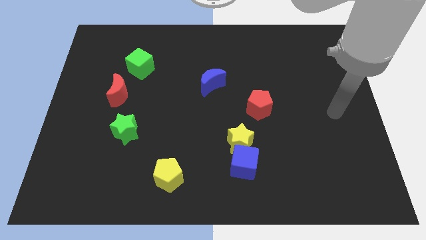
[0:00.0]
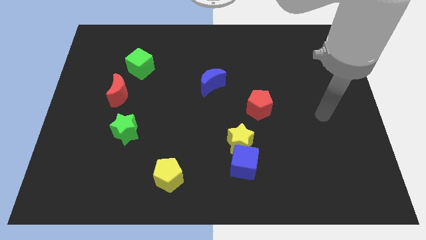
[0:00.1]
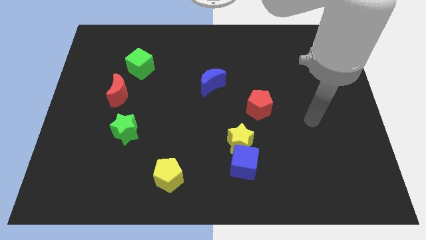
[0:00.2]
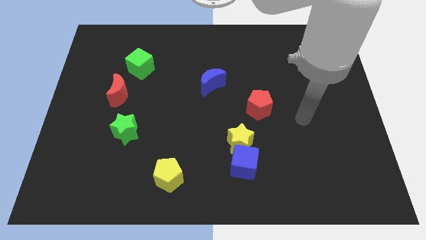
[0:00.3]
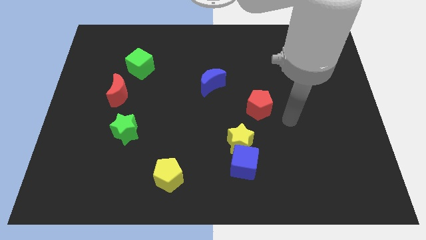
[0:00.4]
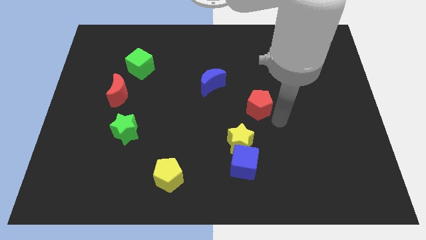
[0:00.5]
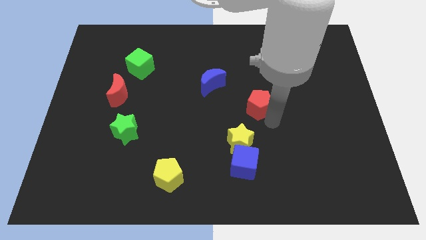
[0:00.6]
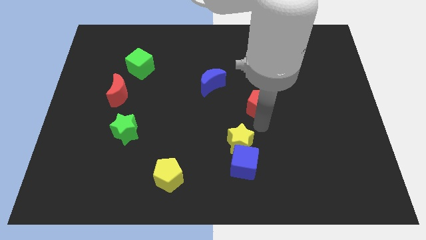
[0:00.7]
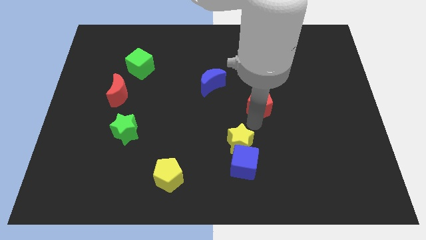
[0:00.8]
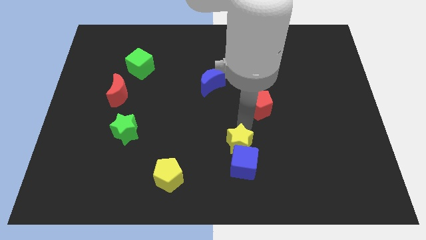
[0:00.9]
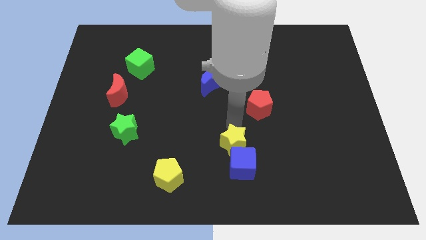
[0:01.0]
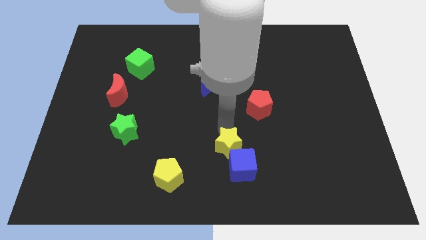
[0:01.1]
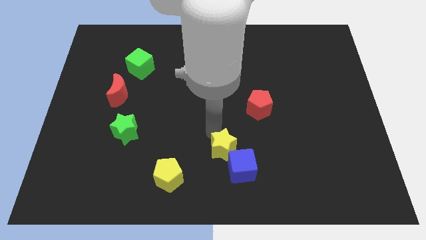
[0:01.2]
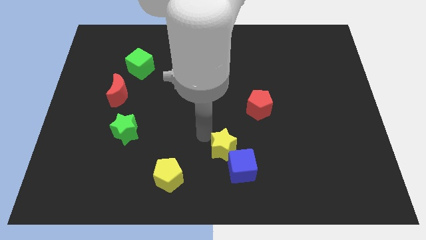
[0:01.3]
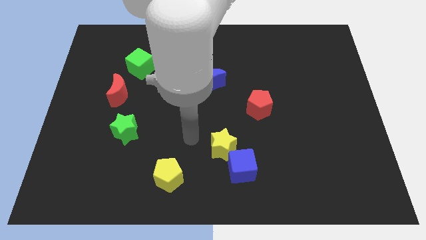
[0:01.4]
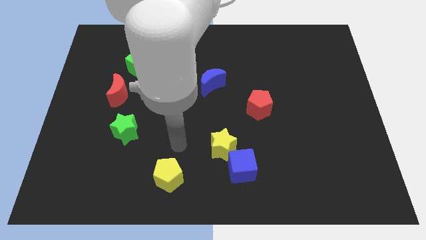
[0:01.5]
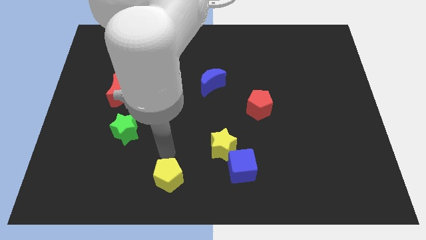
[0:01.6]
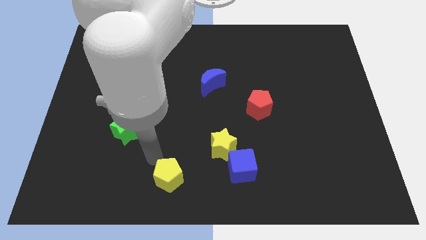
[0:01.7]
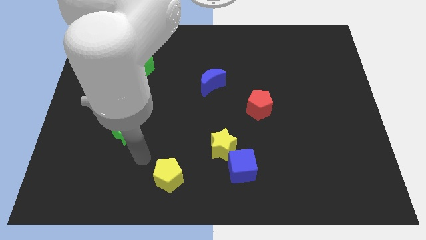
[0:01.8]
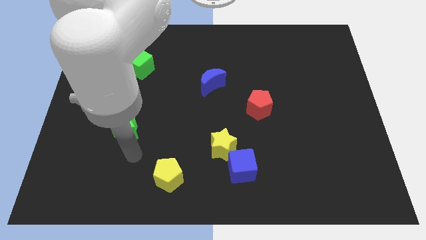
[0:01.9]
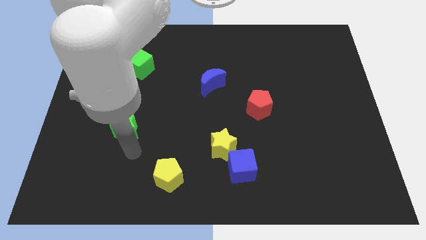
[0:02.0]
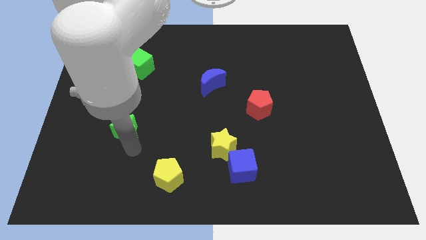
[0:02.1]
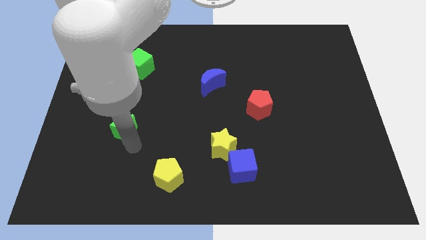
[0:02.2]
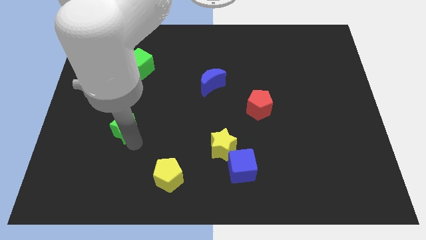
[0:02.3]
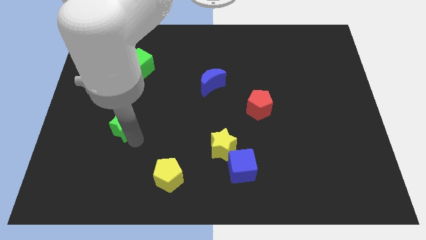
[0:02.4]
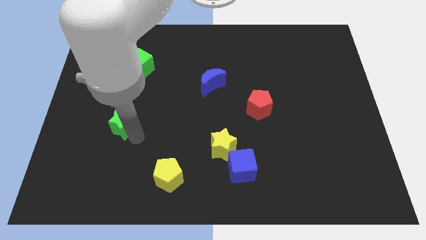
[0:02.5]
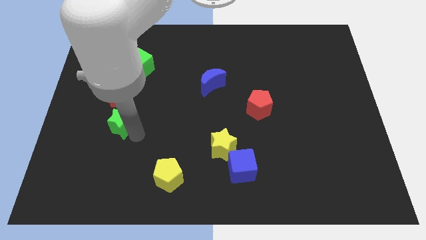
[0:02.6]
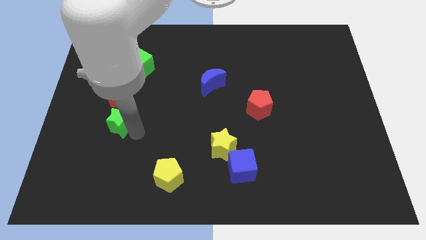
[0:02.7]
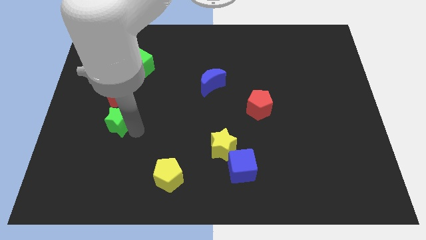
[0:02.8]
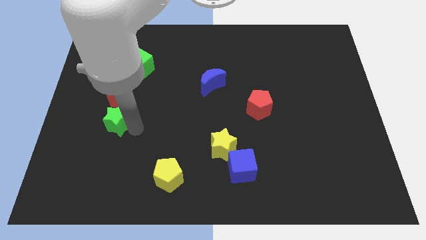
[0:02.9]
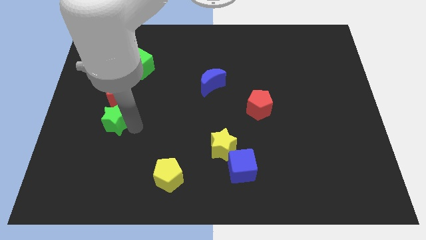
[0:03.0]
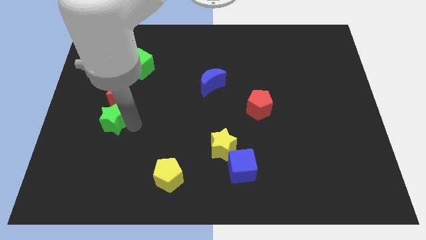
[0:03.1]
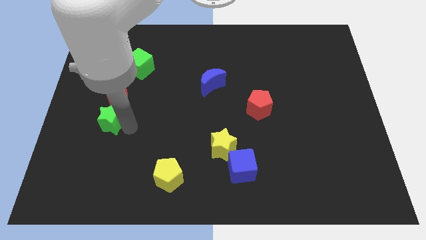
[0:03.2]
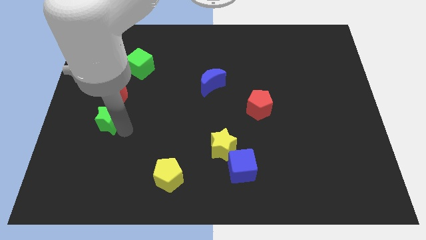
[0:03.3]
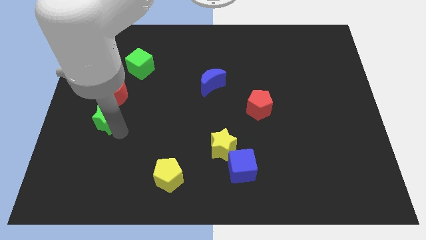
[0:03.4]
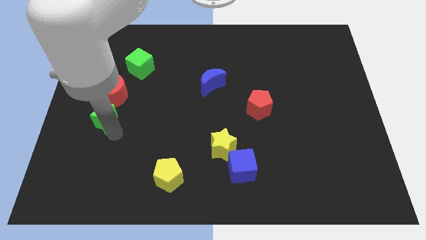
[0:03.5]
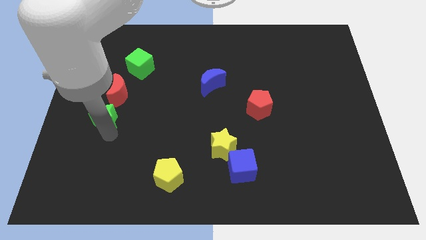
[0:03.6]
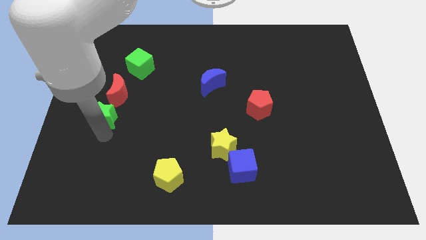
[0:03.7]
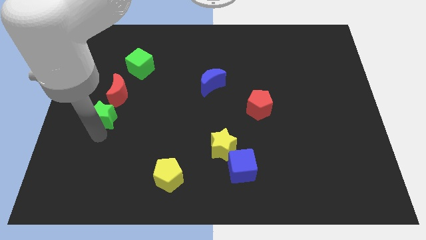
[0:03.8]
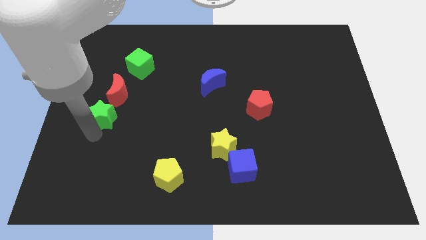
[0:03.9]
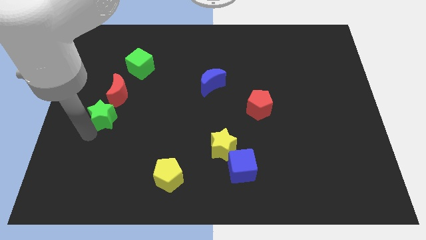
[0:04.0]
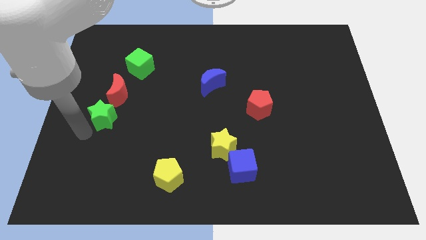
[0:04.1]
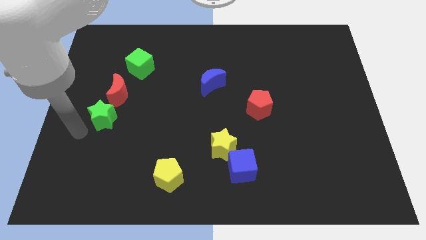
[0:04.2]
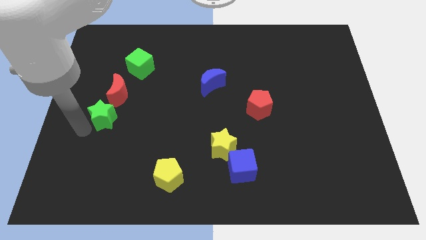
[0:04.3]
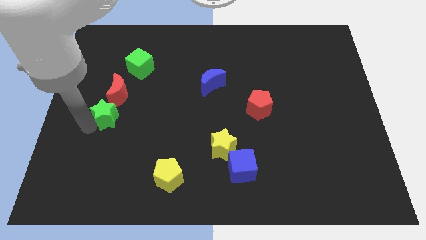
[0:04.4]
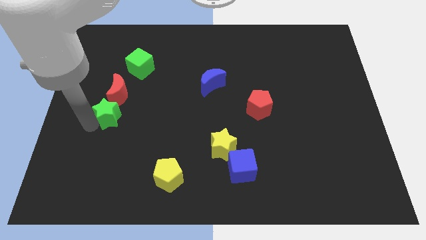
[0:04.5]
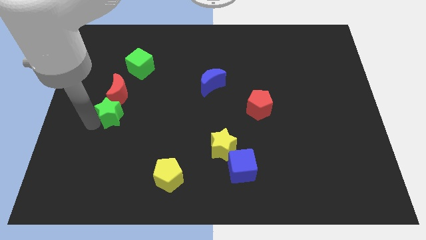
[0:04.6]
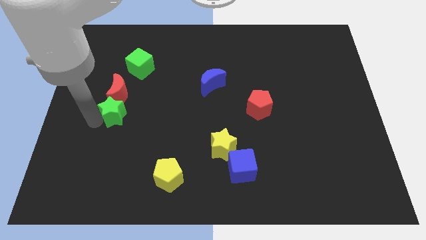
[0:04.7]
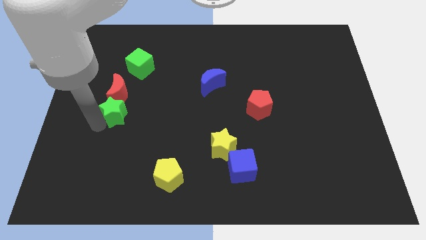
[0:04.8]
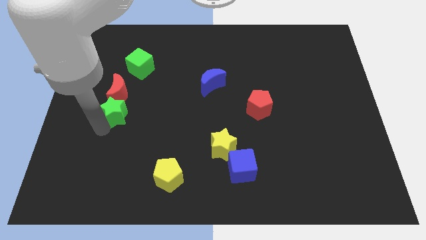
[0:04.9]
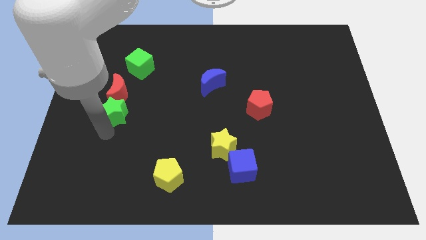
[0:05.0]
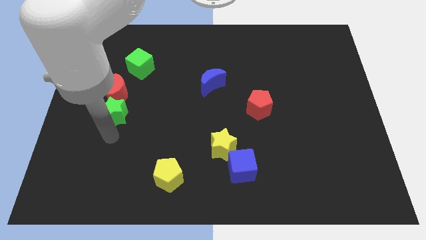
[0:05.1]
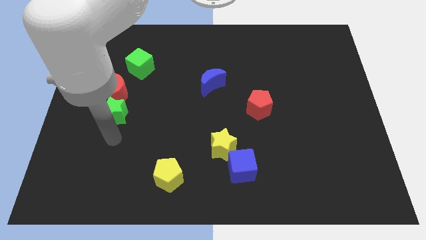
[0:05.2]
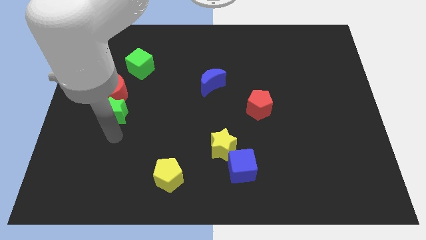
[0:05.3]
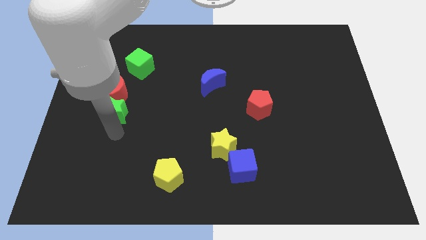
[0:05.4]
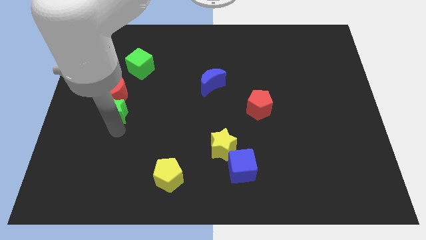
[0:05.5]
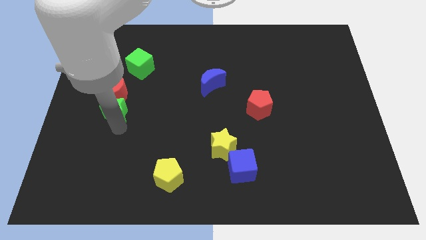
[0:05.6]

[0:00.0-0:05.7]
move the green star to the red moon

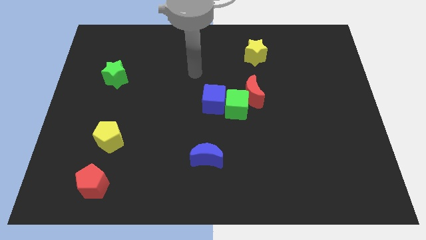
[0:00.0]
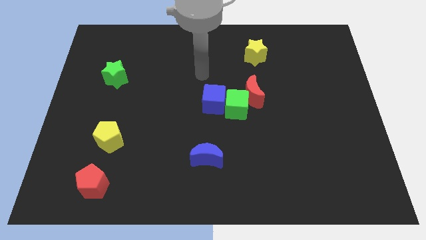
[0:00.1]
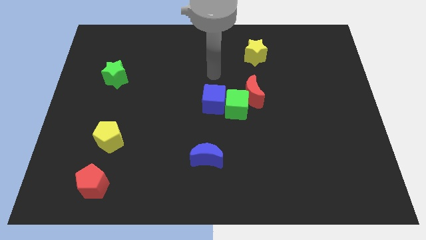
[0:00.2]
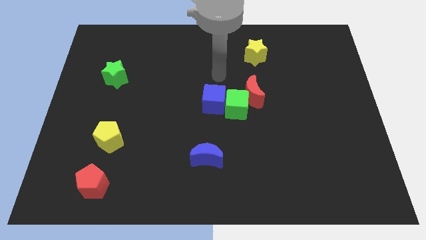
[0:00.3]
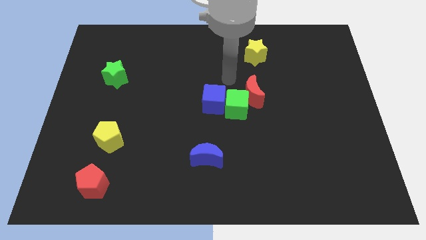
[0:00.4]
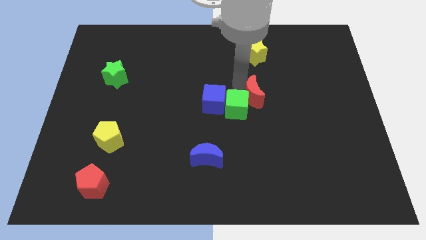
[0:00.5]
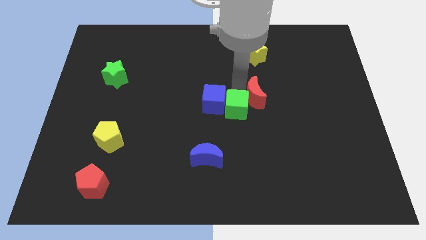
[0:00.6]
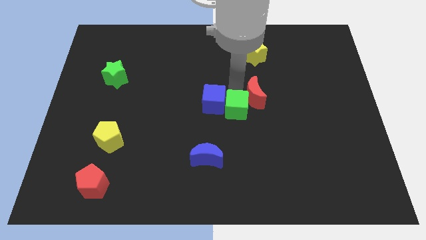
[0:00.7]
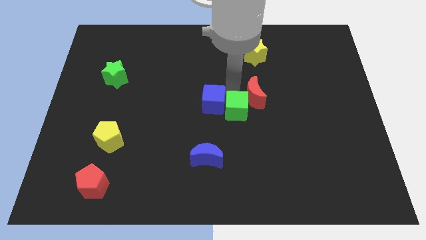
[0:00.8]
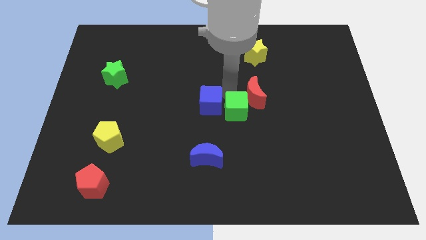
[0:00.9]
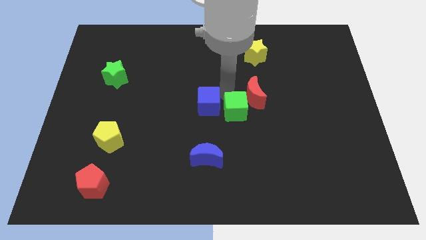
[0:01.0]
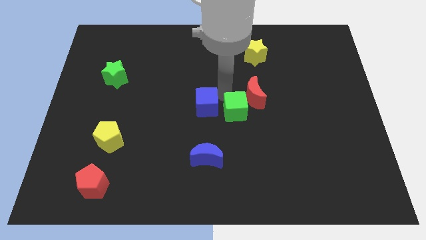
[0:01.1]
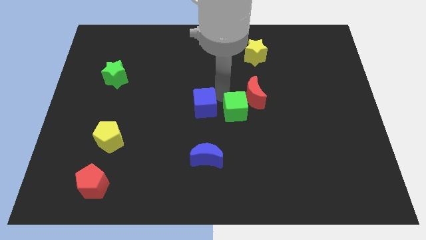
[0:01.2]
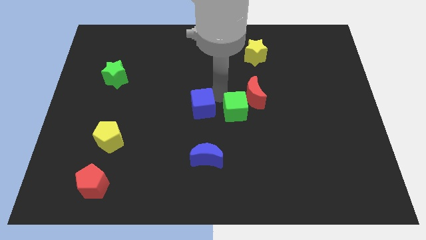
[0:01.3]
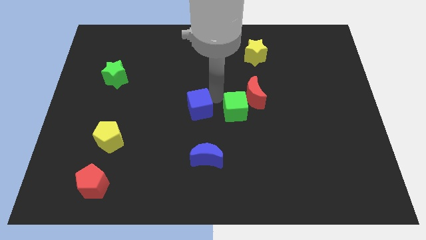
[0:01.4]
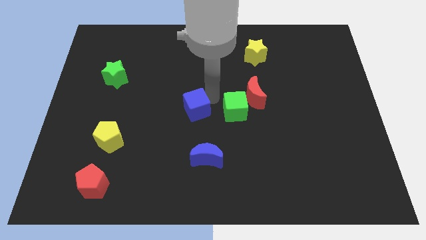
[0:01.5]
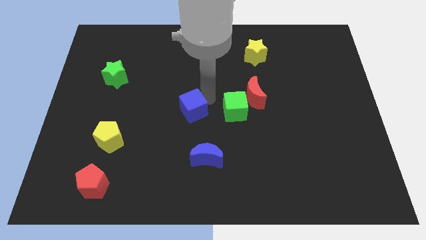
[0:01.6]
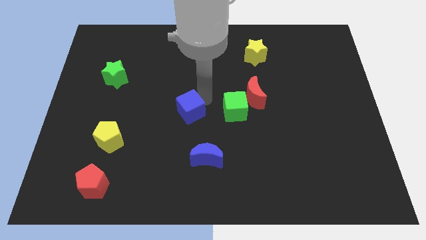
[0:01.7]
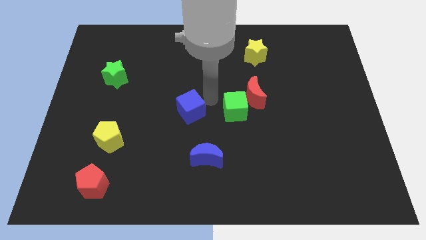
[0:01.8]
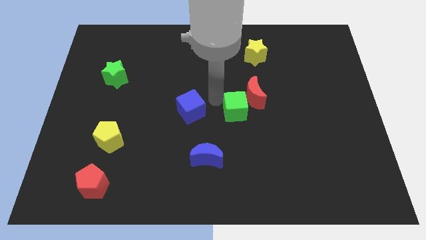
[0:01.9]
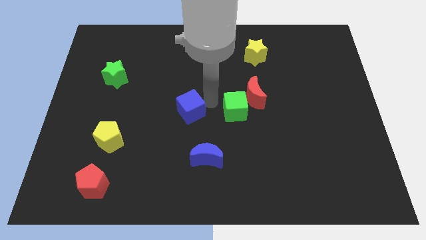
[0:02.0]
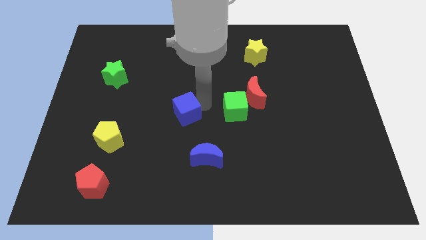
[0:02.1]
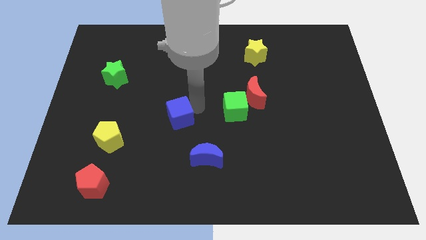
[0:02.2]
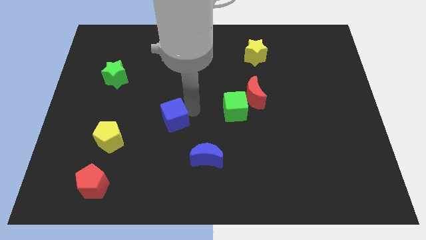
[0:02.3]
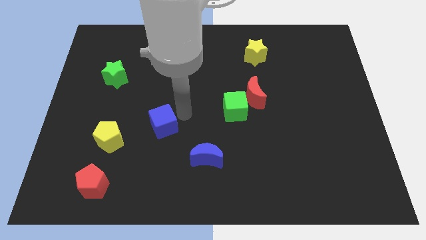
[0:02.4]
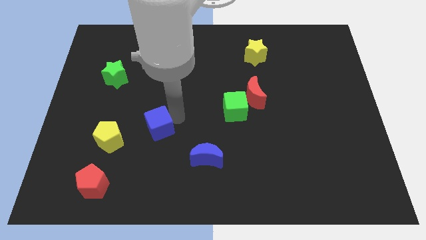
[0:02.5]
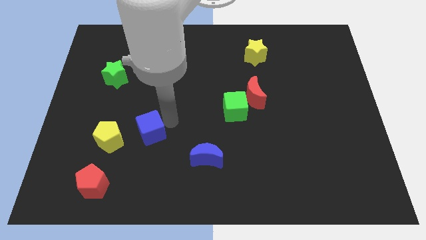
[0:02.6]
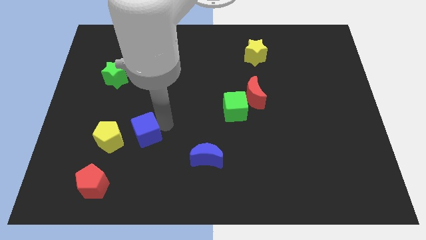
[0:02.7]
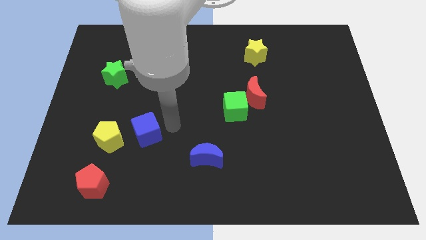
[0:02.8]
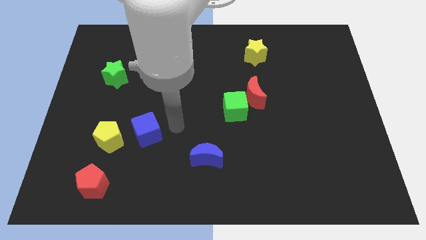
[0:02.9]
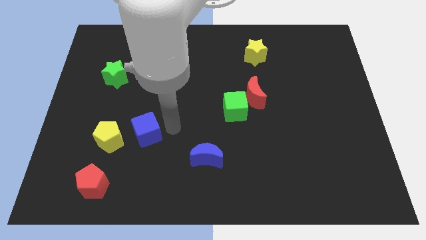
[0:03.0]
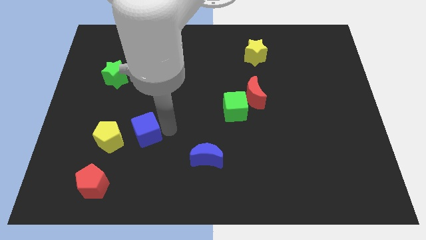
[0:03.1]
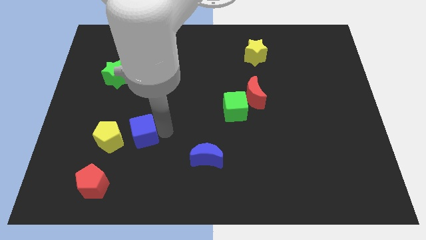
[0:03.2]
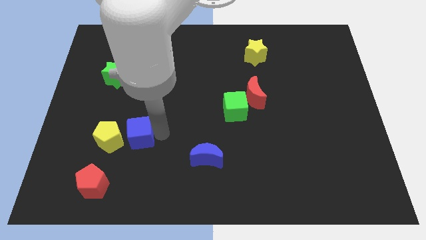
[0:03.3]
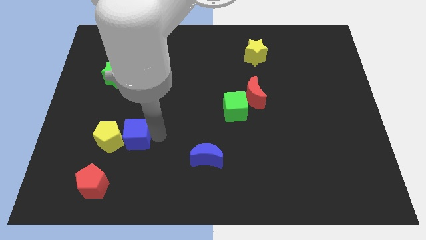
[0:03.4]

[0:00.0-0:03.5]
push the blue cube next to the yellow pentagon
